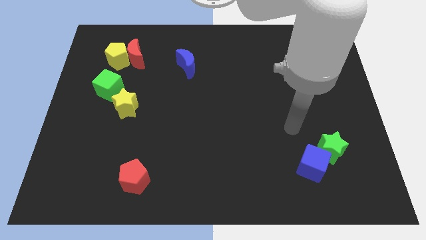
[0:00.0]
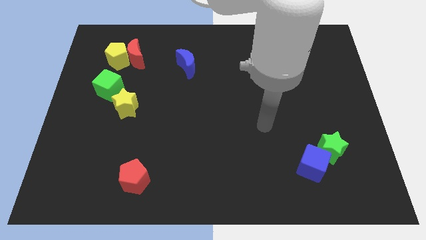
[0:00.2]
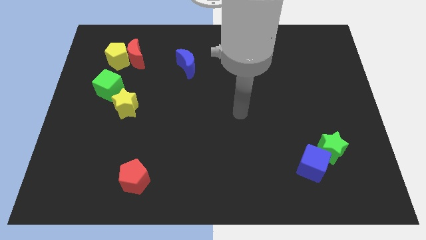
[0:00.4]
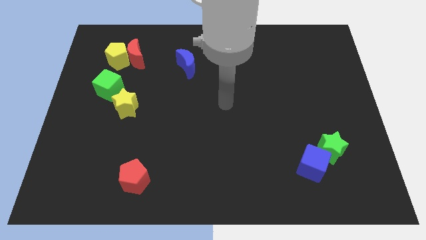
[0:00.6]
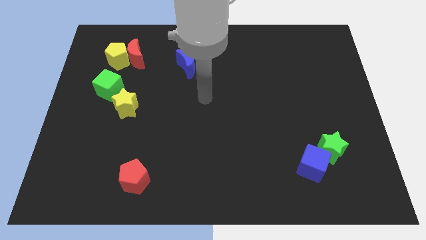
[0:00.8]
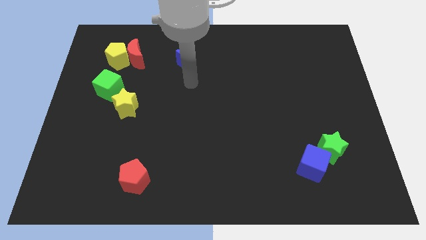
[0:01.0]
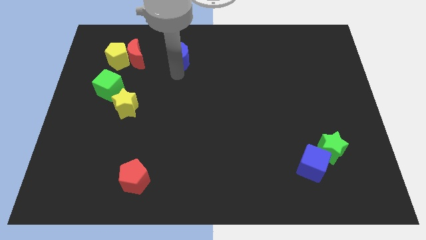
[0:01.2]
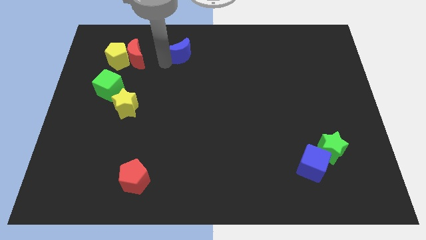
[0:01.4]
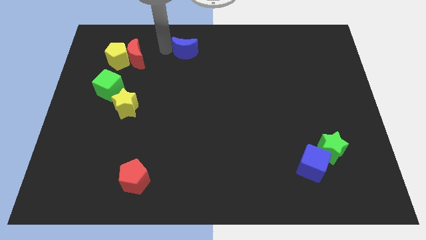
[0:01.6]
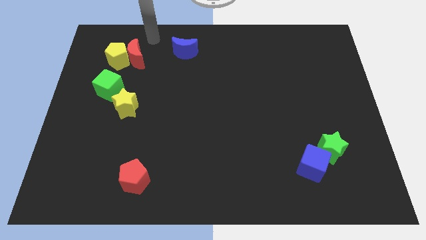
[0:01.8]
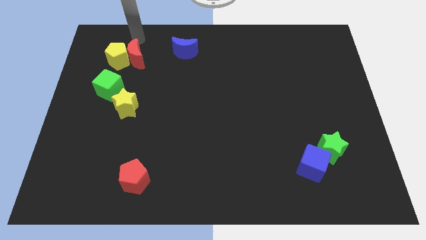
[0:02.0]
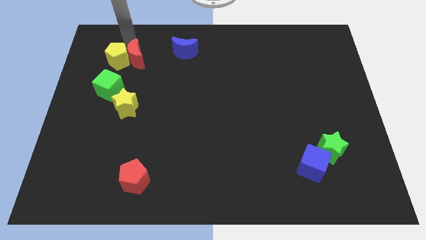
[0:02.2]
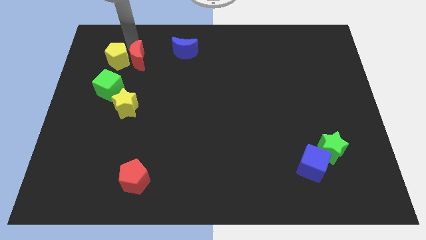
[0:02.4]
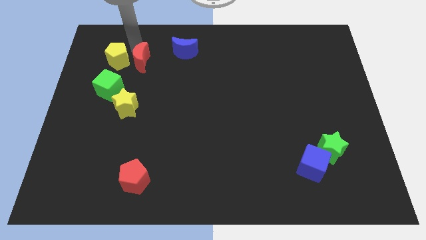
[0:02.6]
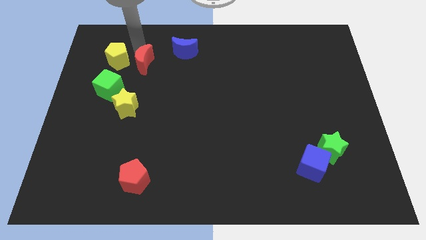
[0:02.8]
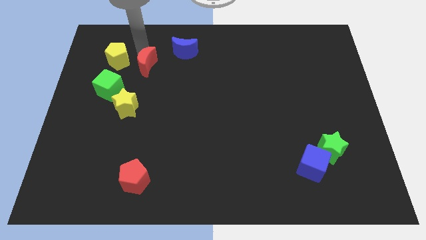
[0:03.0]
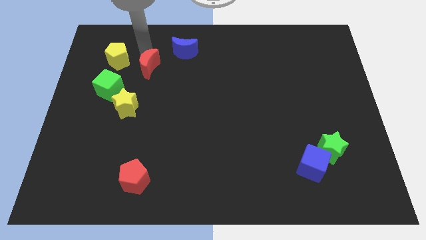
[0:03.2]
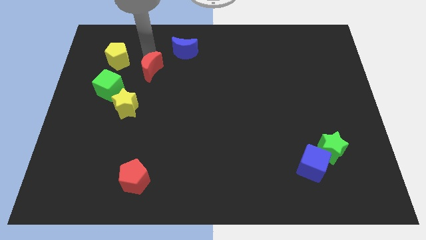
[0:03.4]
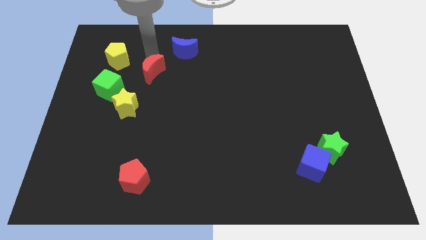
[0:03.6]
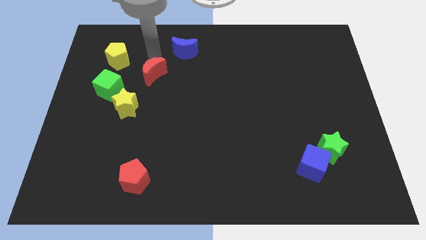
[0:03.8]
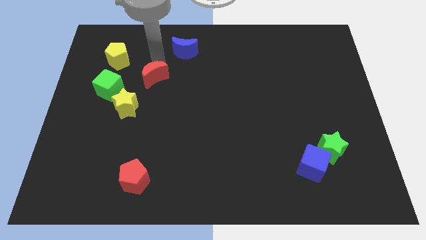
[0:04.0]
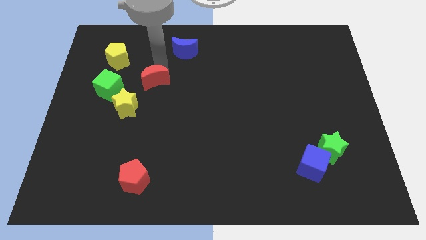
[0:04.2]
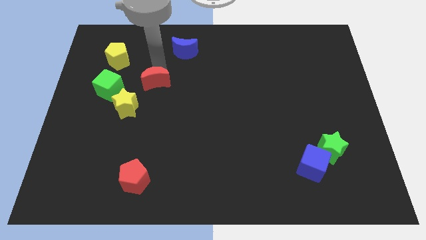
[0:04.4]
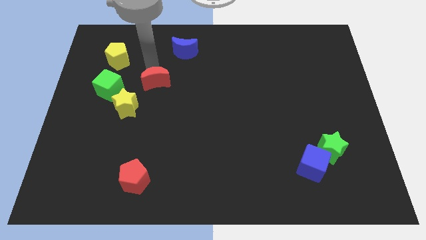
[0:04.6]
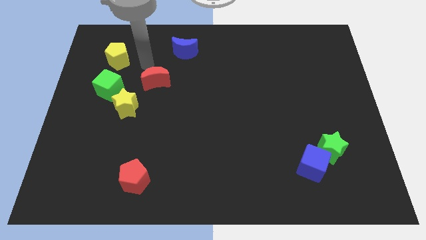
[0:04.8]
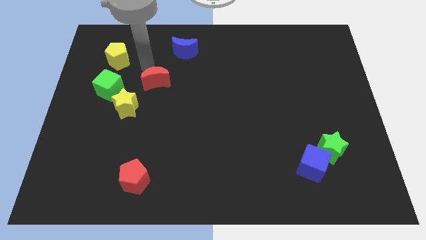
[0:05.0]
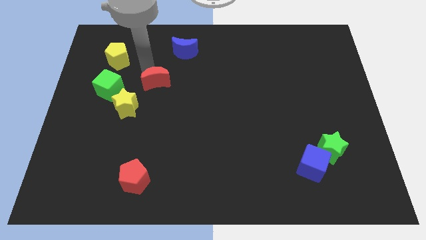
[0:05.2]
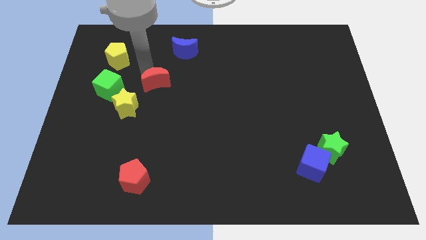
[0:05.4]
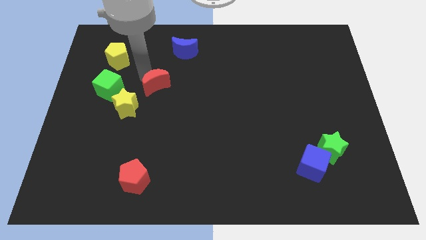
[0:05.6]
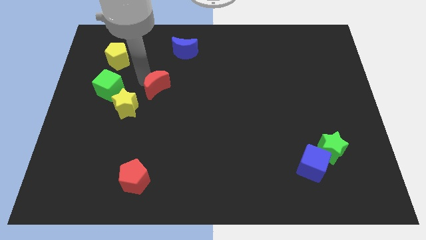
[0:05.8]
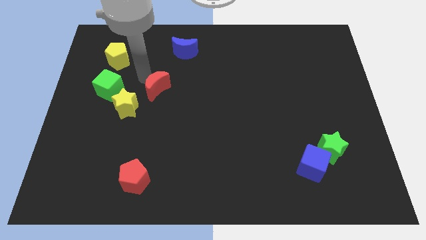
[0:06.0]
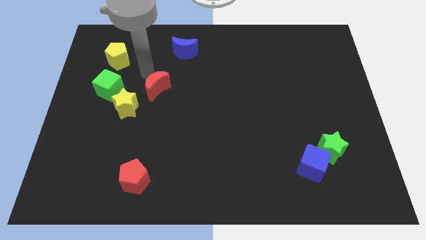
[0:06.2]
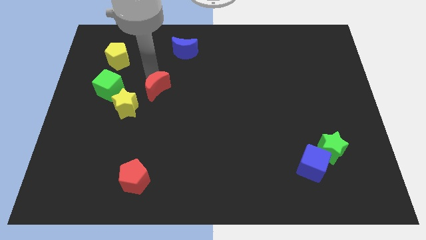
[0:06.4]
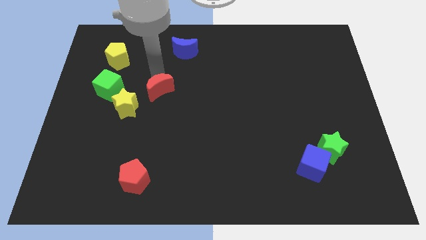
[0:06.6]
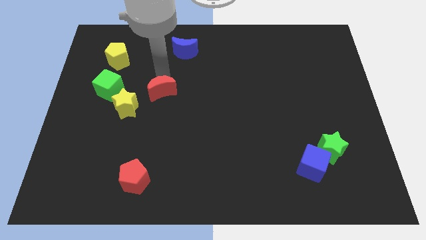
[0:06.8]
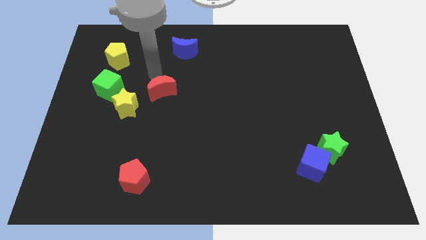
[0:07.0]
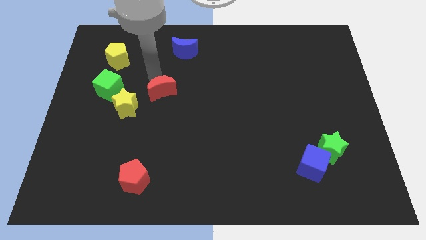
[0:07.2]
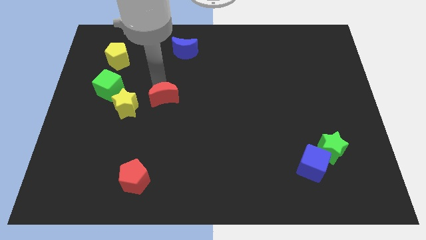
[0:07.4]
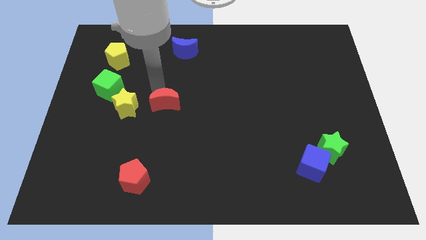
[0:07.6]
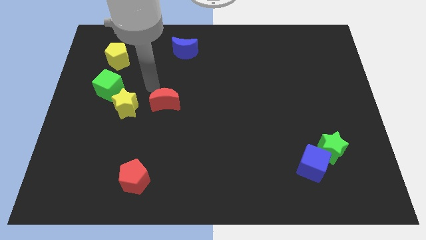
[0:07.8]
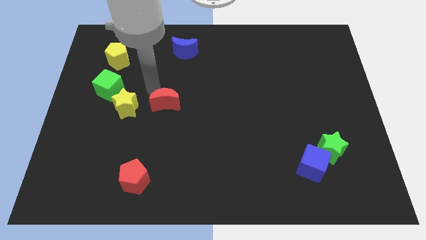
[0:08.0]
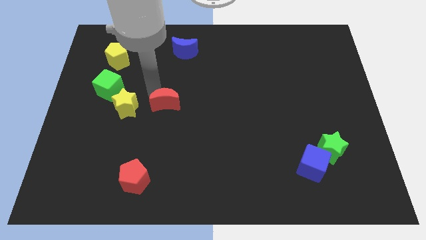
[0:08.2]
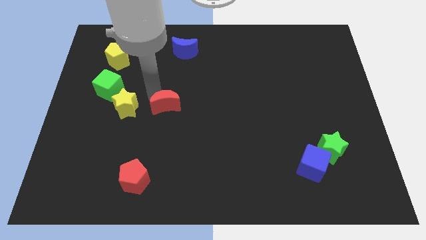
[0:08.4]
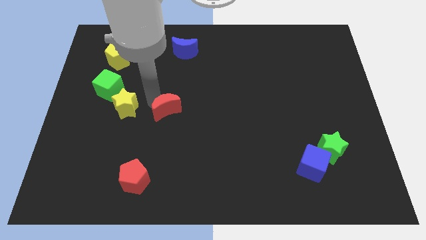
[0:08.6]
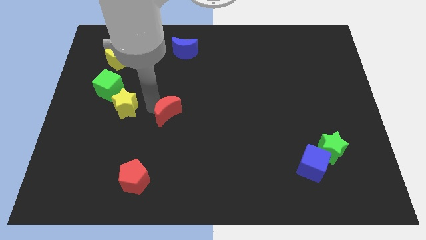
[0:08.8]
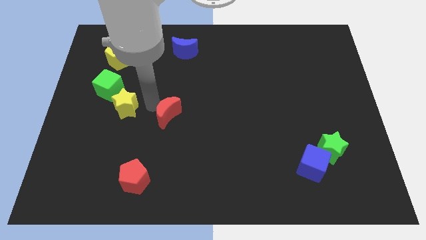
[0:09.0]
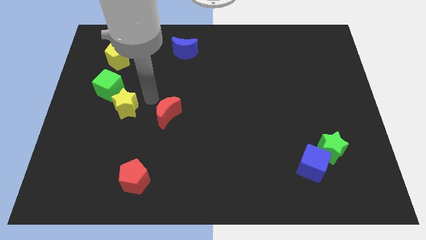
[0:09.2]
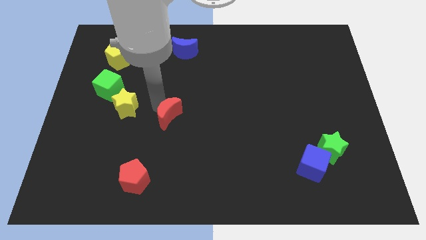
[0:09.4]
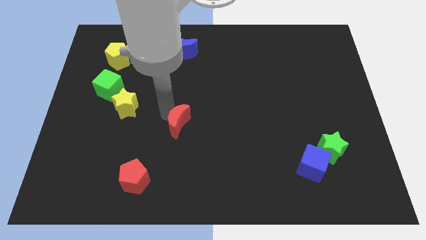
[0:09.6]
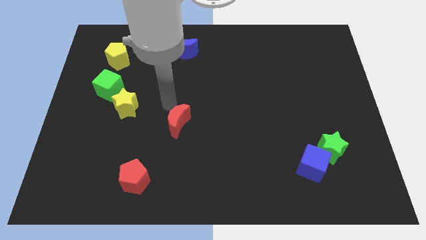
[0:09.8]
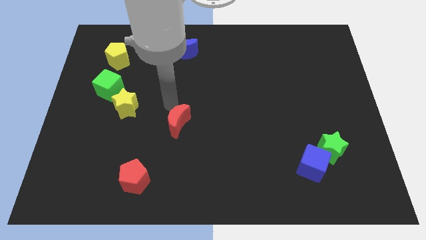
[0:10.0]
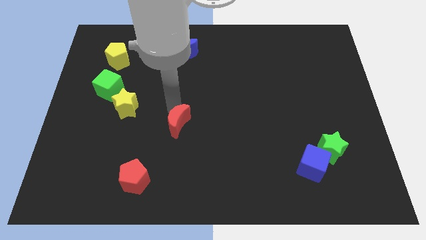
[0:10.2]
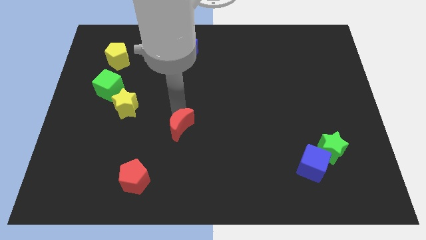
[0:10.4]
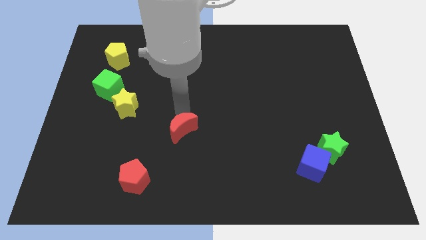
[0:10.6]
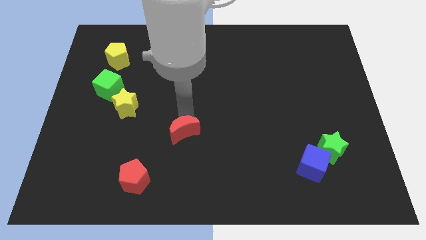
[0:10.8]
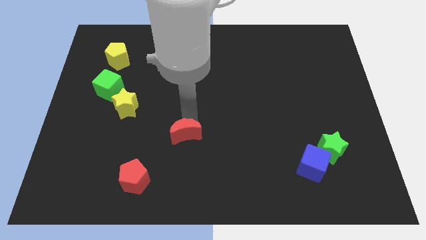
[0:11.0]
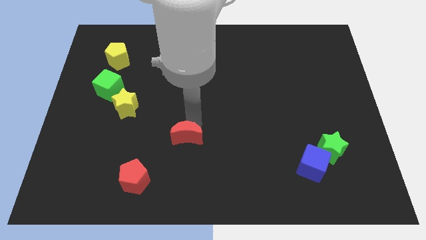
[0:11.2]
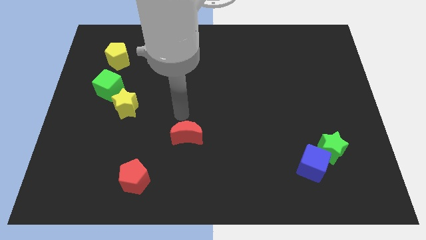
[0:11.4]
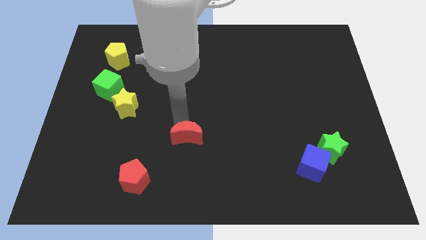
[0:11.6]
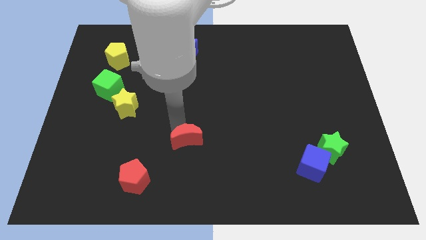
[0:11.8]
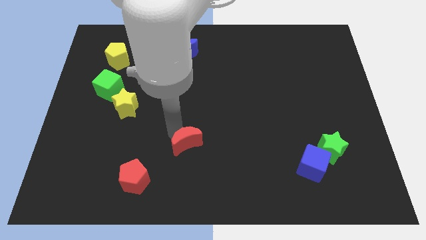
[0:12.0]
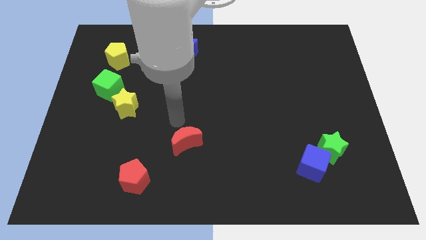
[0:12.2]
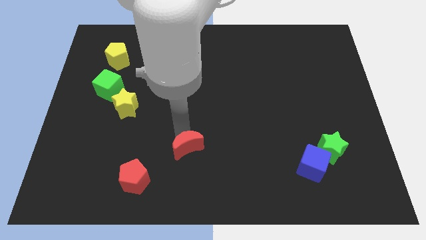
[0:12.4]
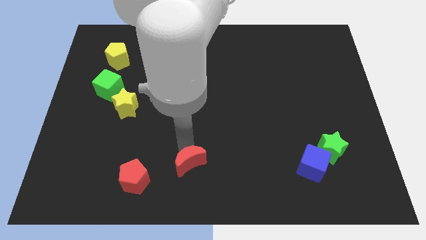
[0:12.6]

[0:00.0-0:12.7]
put the red moon to the bottom side
